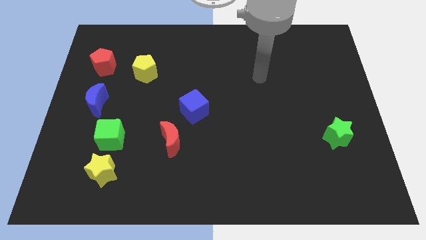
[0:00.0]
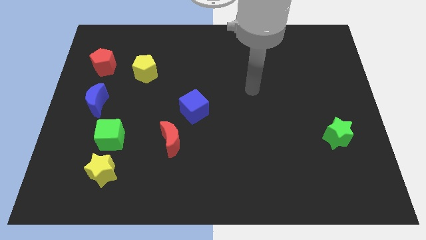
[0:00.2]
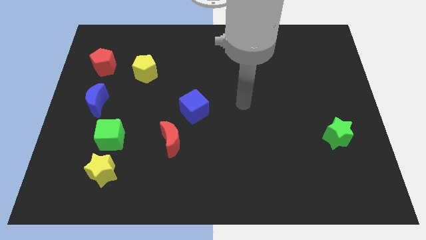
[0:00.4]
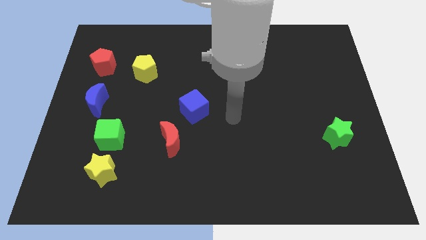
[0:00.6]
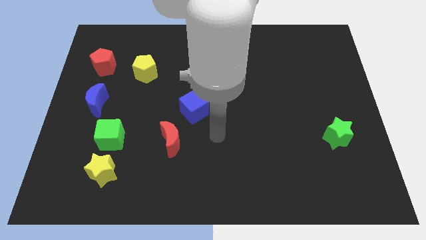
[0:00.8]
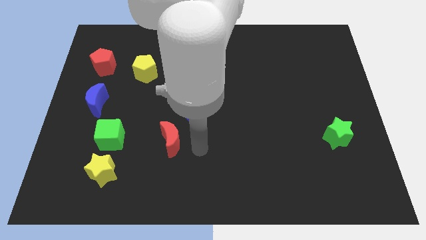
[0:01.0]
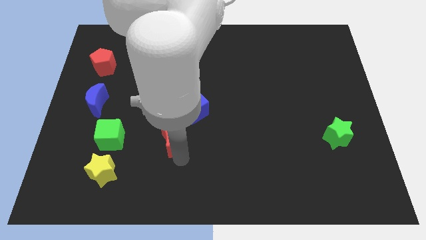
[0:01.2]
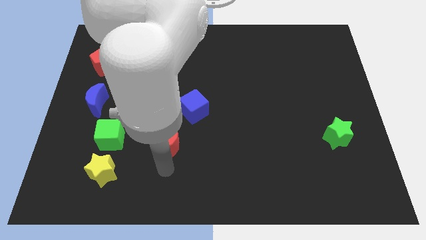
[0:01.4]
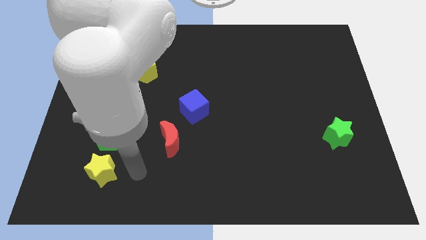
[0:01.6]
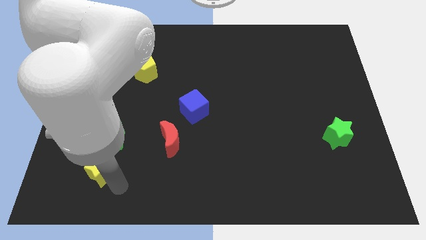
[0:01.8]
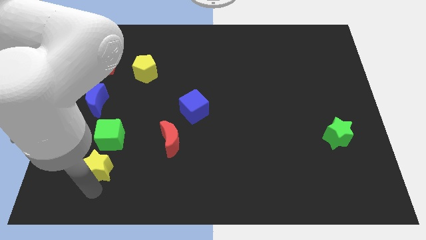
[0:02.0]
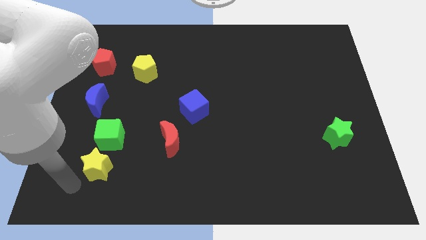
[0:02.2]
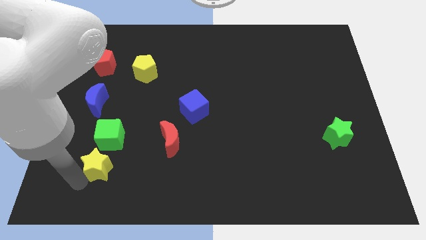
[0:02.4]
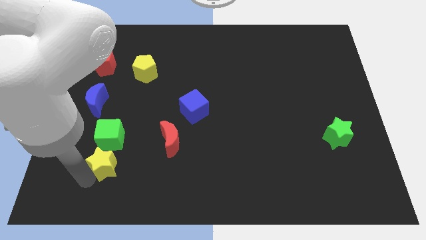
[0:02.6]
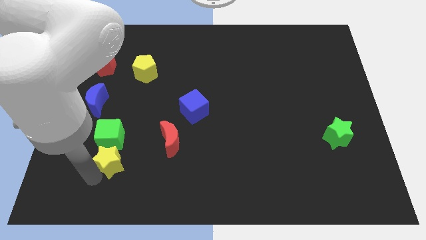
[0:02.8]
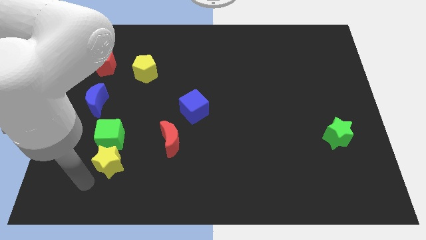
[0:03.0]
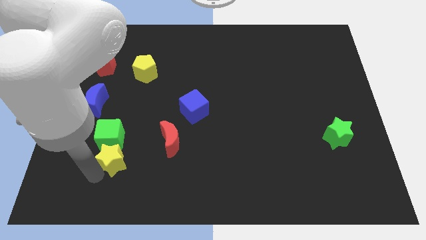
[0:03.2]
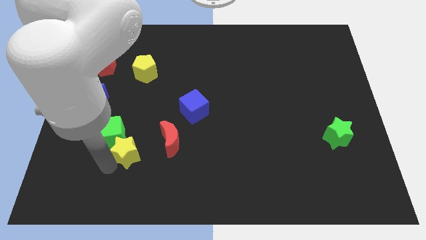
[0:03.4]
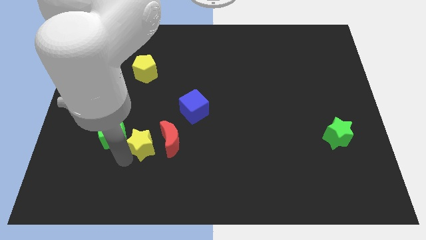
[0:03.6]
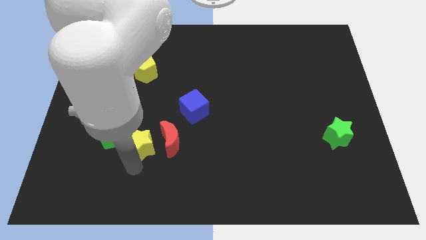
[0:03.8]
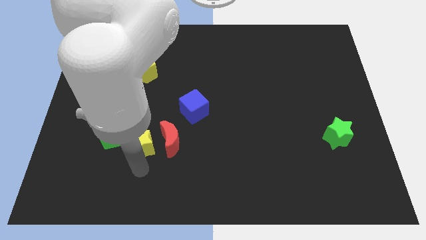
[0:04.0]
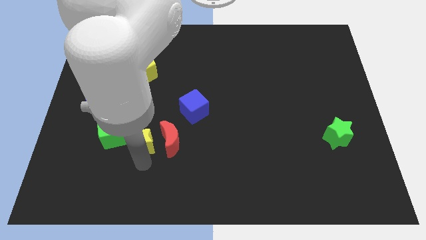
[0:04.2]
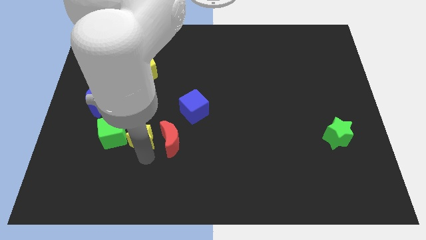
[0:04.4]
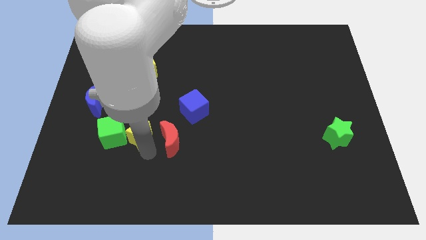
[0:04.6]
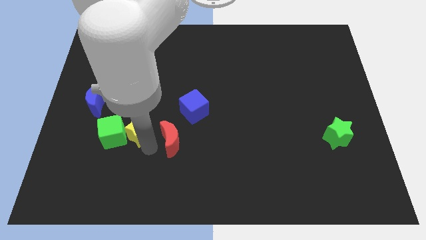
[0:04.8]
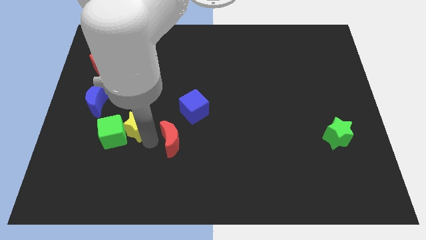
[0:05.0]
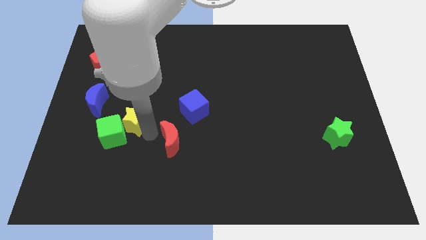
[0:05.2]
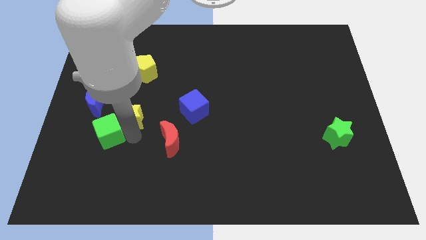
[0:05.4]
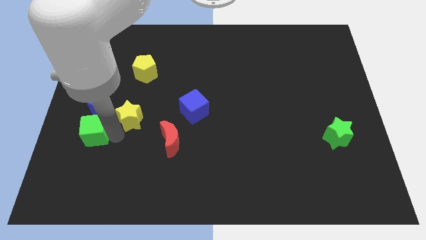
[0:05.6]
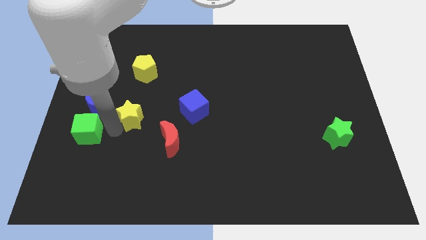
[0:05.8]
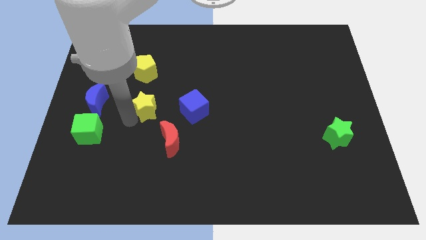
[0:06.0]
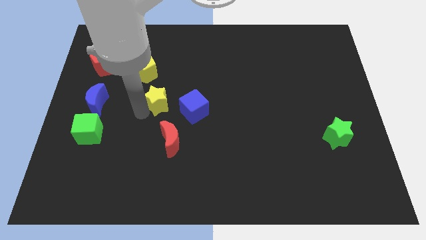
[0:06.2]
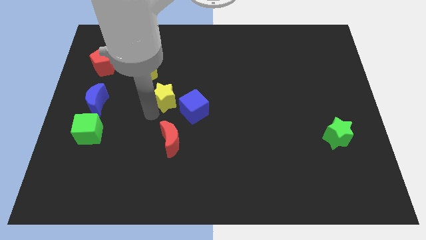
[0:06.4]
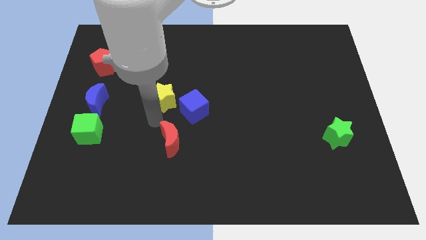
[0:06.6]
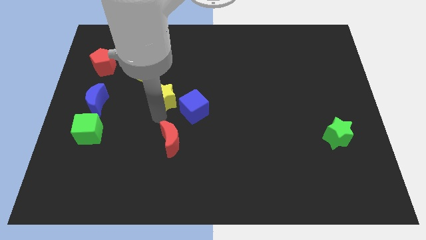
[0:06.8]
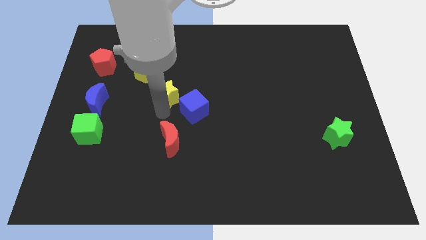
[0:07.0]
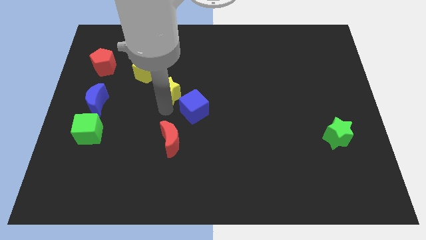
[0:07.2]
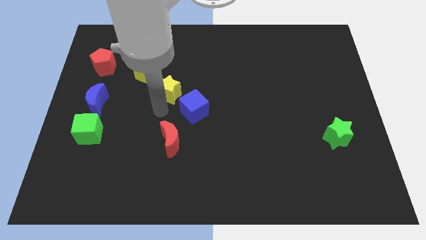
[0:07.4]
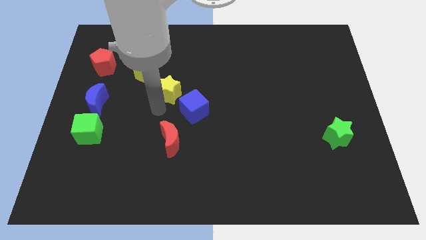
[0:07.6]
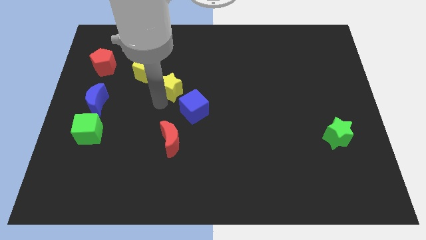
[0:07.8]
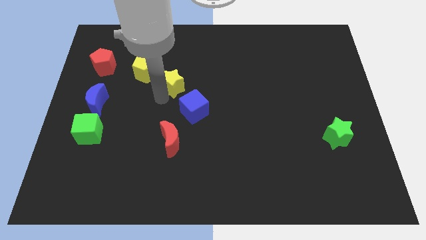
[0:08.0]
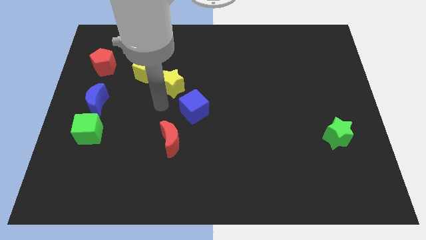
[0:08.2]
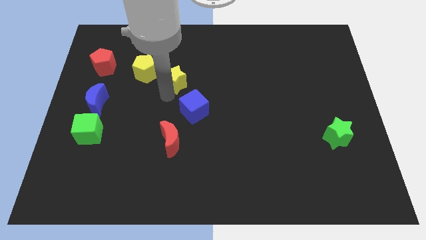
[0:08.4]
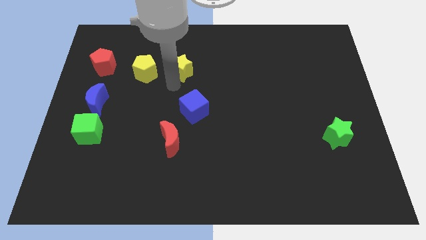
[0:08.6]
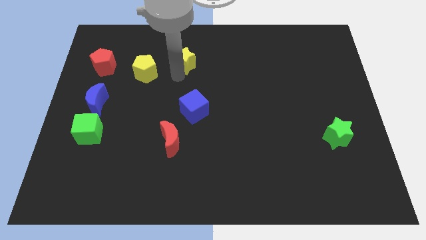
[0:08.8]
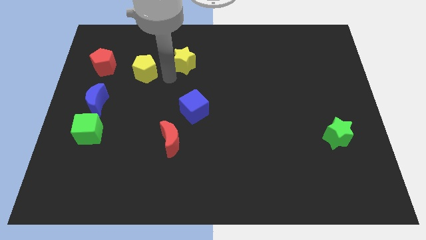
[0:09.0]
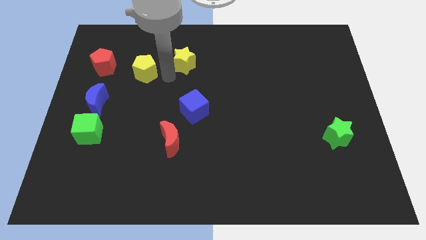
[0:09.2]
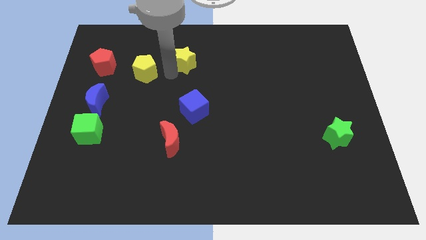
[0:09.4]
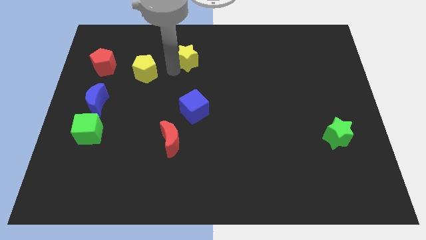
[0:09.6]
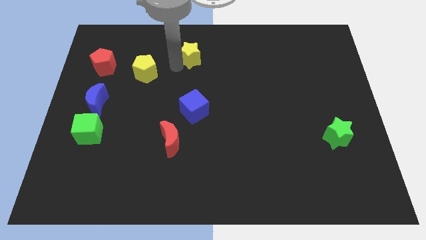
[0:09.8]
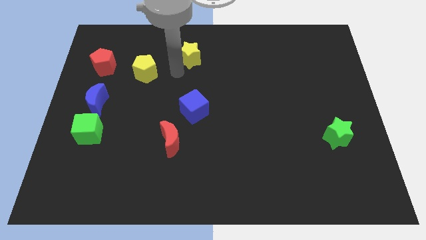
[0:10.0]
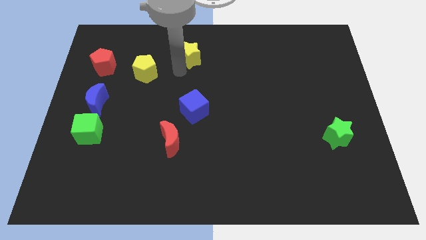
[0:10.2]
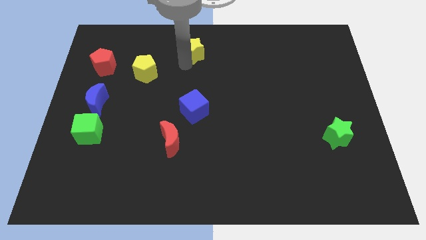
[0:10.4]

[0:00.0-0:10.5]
push the yellow star to the towards your base
